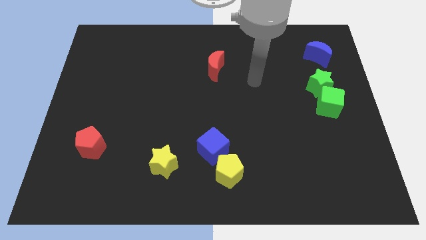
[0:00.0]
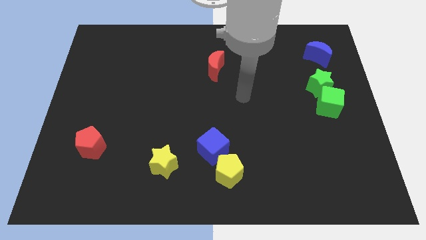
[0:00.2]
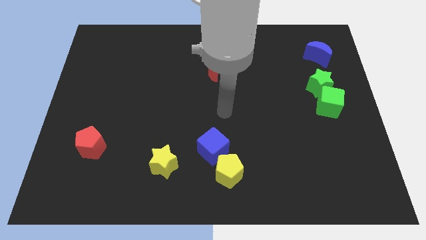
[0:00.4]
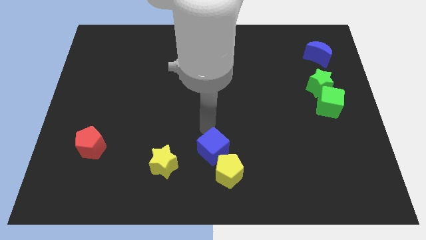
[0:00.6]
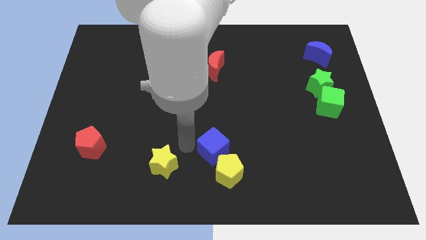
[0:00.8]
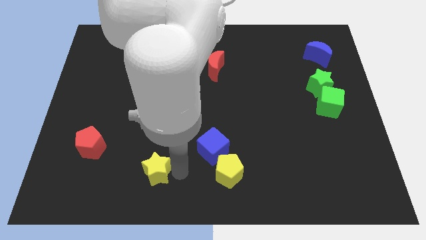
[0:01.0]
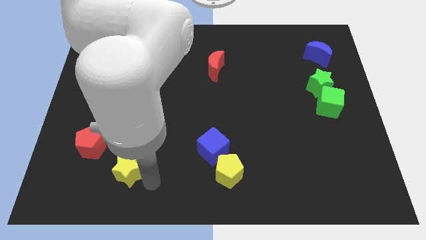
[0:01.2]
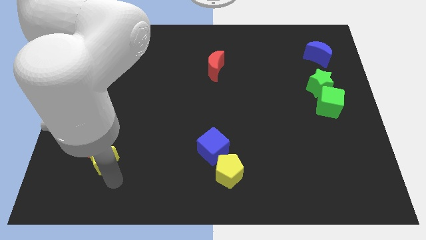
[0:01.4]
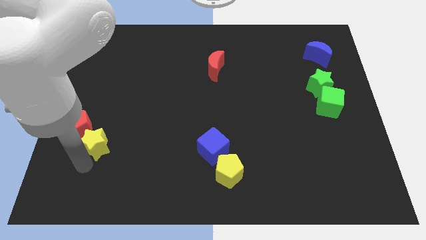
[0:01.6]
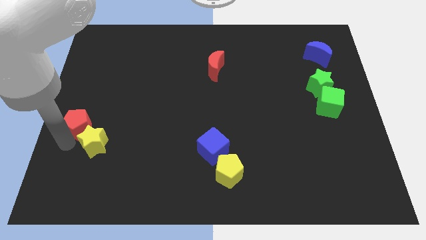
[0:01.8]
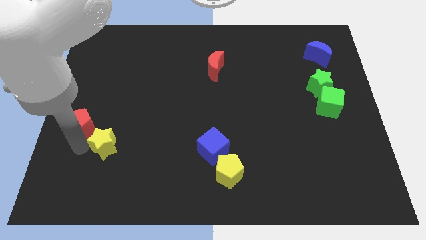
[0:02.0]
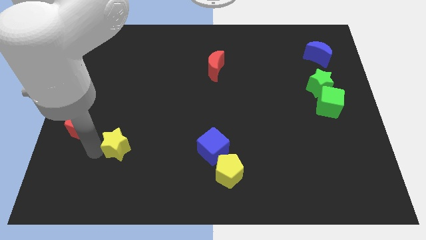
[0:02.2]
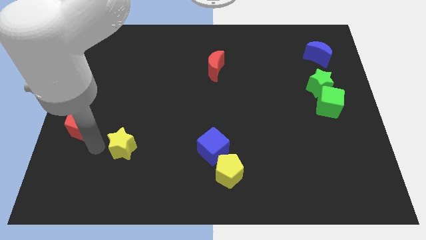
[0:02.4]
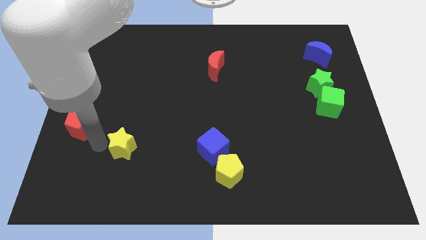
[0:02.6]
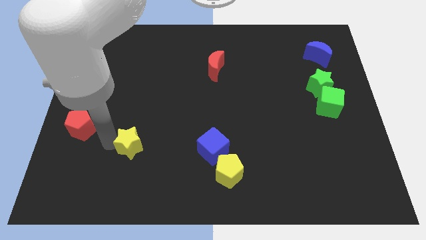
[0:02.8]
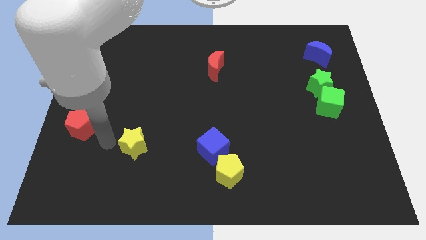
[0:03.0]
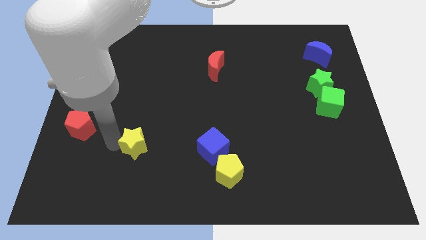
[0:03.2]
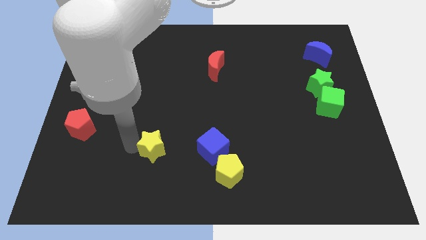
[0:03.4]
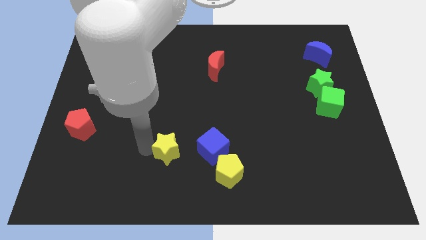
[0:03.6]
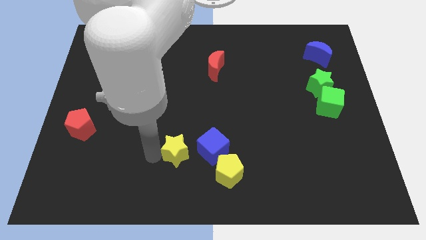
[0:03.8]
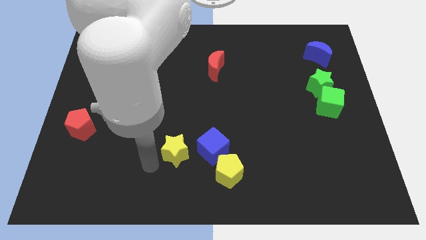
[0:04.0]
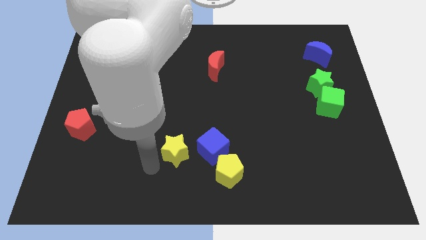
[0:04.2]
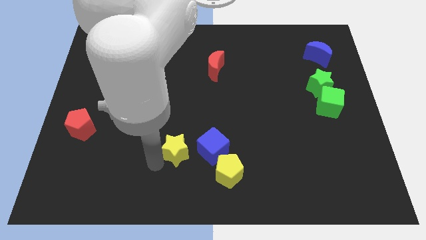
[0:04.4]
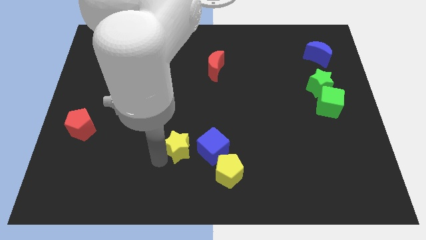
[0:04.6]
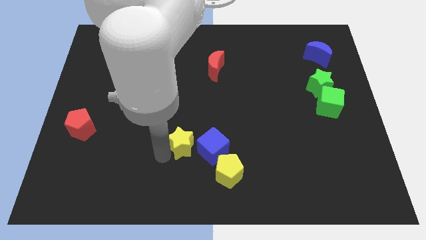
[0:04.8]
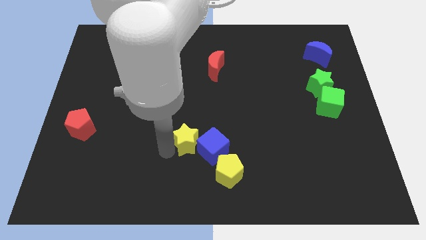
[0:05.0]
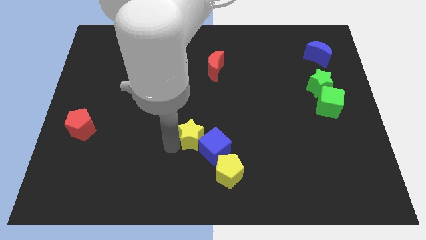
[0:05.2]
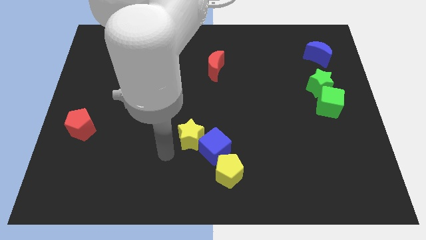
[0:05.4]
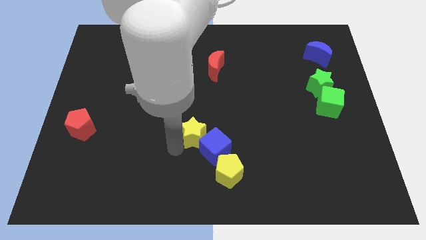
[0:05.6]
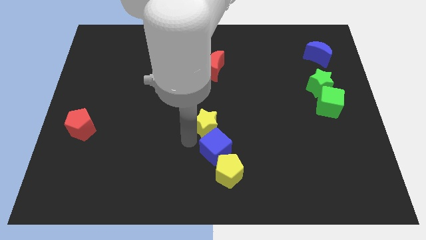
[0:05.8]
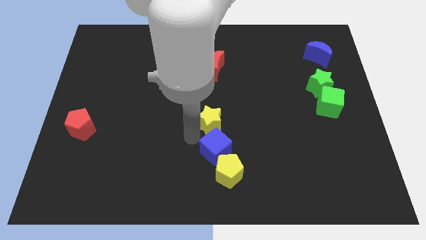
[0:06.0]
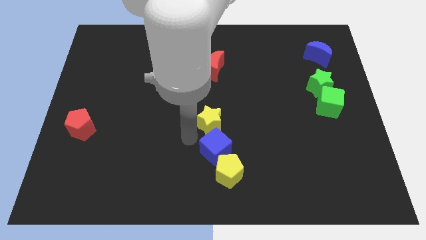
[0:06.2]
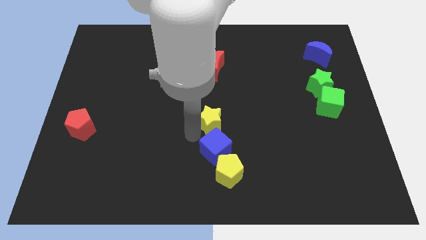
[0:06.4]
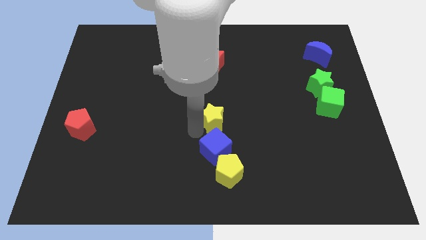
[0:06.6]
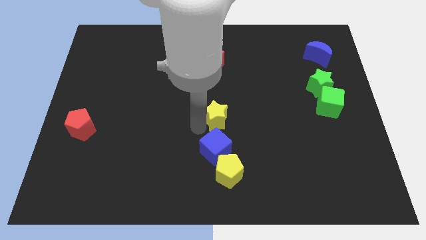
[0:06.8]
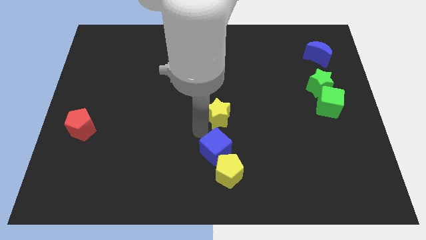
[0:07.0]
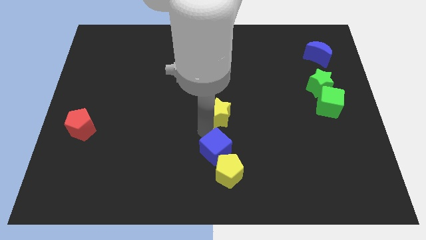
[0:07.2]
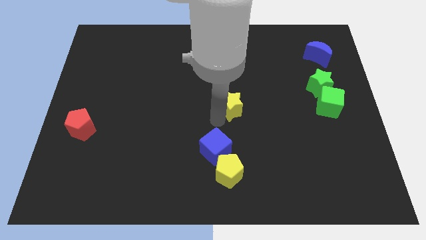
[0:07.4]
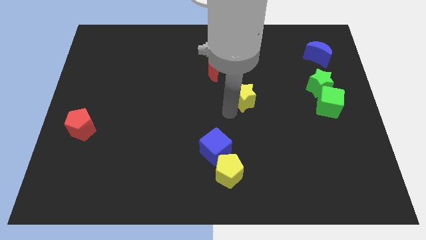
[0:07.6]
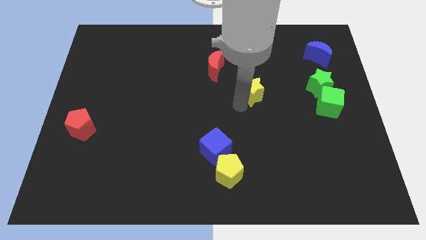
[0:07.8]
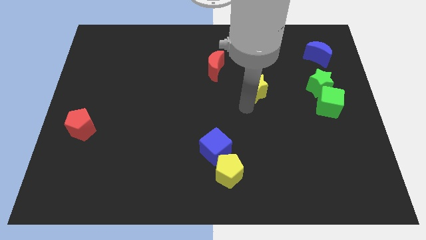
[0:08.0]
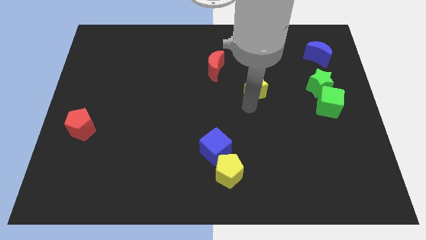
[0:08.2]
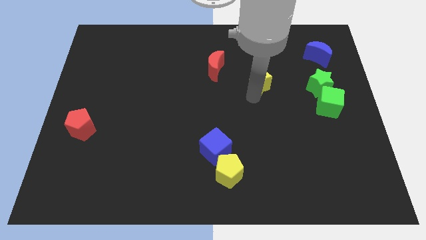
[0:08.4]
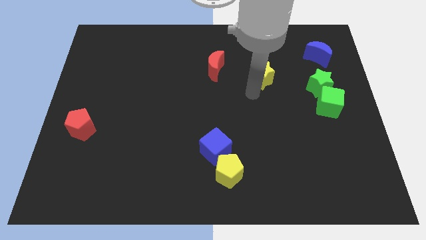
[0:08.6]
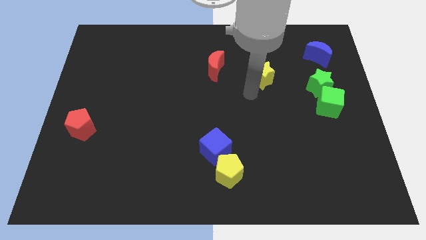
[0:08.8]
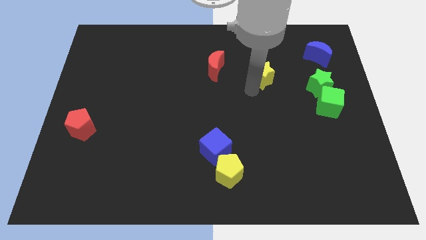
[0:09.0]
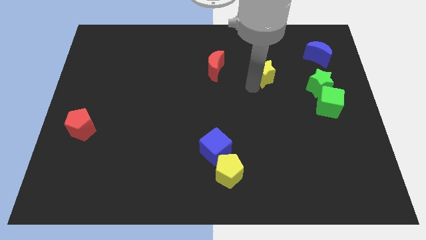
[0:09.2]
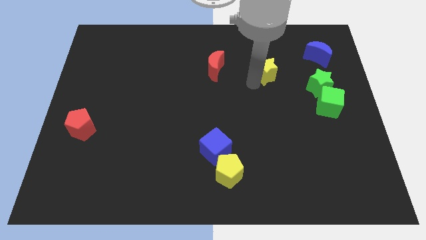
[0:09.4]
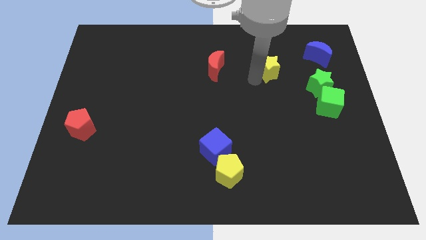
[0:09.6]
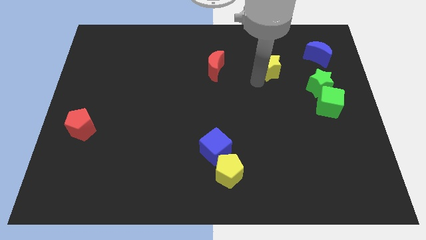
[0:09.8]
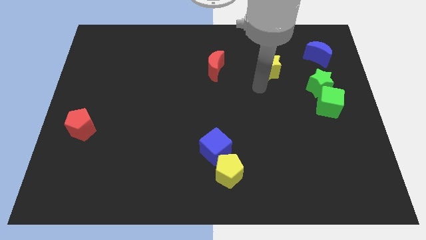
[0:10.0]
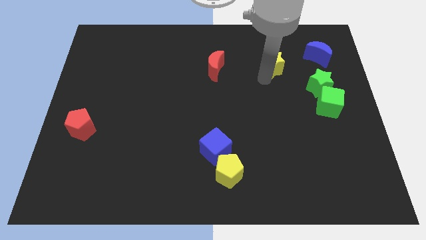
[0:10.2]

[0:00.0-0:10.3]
put the yellow star to the left of the blue moon

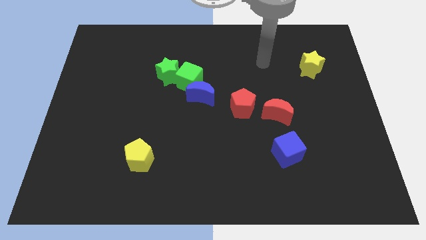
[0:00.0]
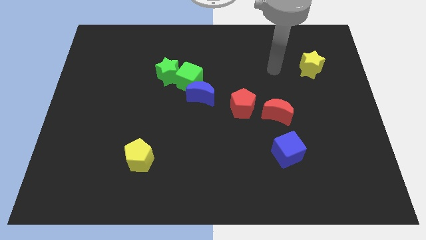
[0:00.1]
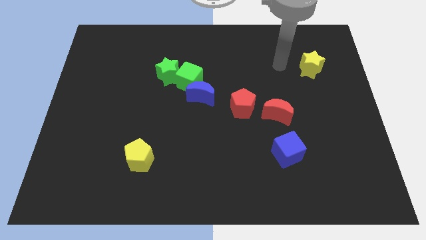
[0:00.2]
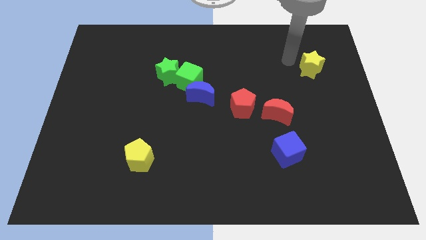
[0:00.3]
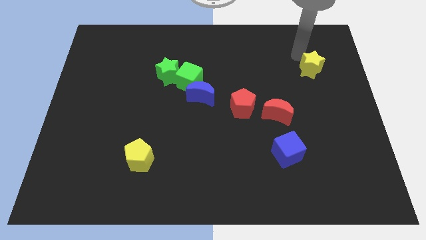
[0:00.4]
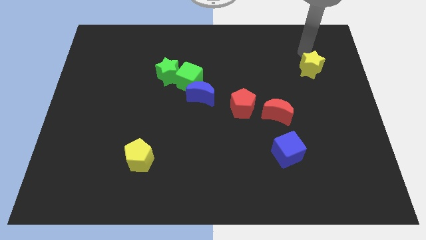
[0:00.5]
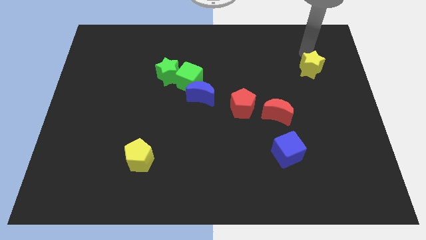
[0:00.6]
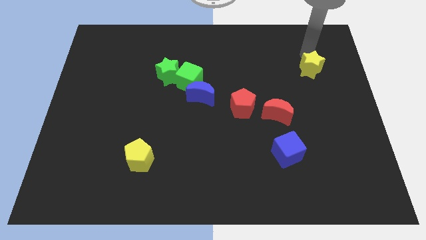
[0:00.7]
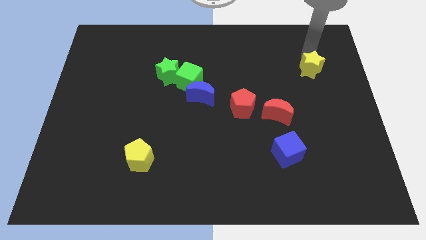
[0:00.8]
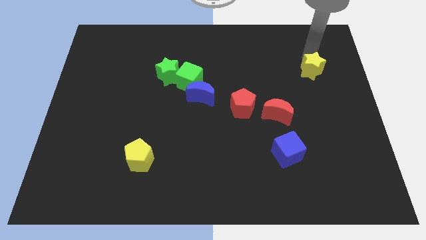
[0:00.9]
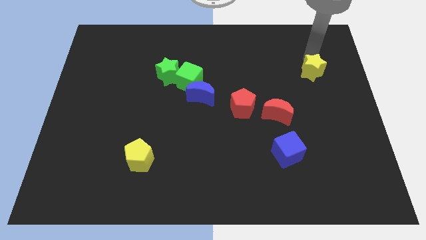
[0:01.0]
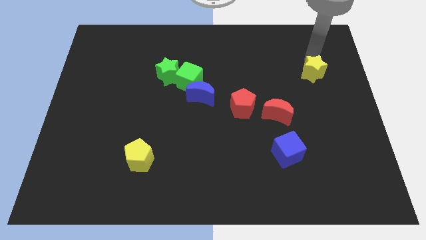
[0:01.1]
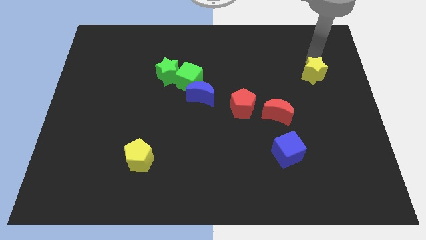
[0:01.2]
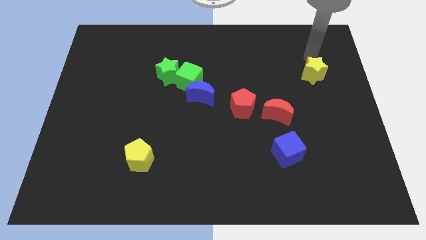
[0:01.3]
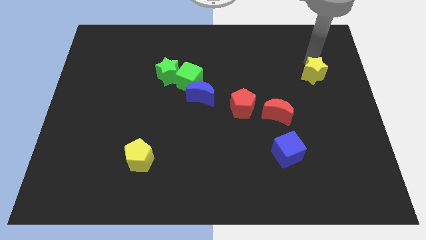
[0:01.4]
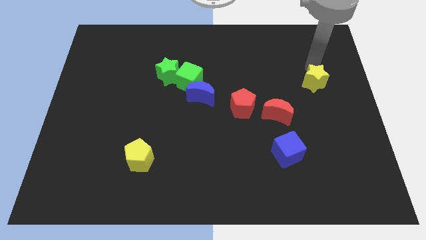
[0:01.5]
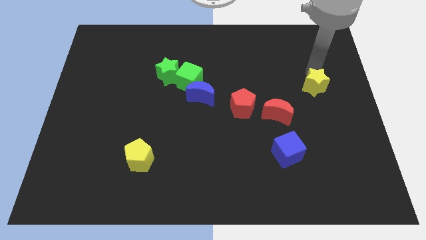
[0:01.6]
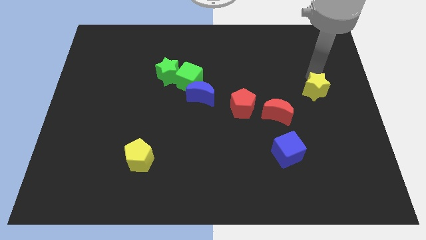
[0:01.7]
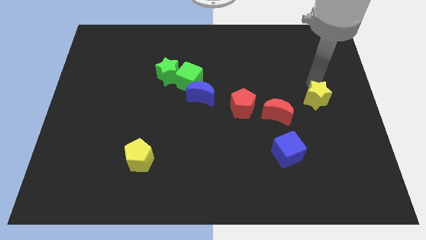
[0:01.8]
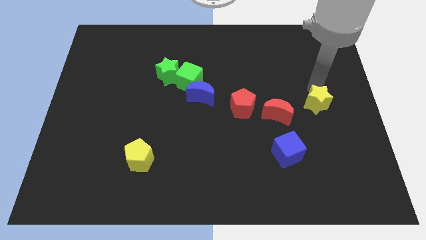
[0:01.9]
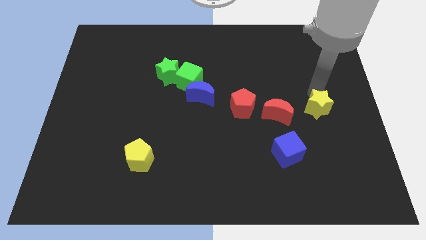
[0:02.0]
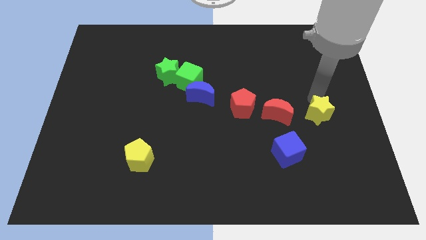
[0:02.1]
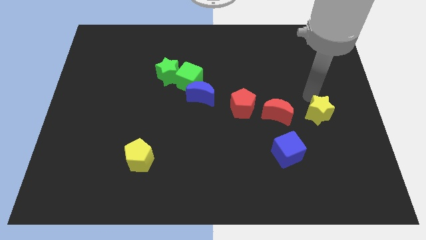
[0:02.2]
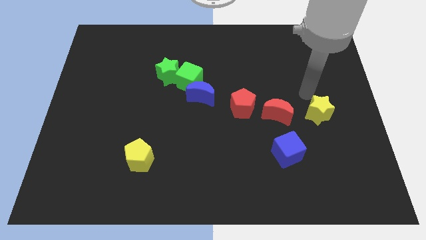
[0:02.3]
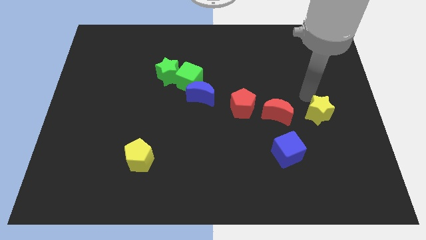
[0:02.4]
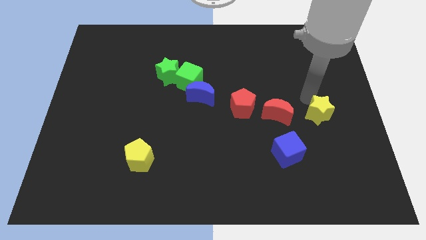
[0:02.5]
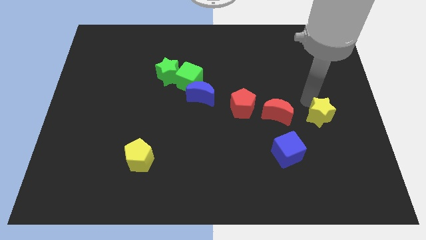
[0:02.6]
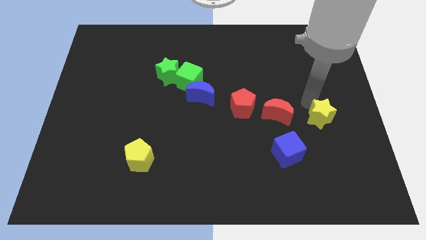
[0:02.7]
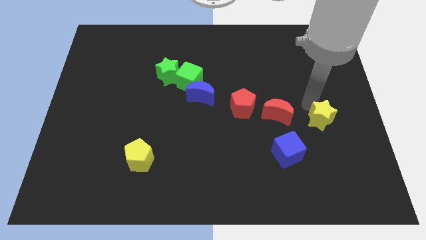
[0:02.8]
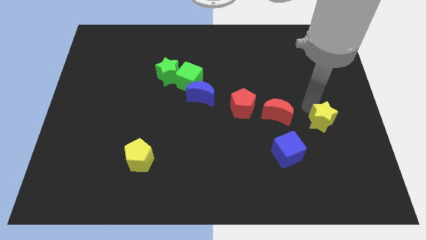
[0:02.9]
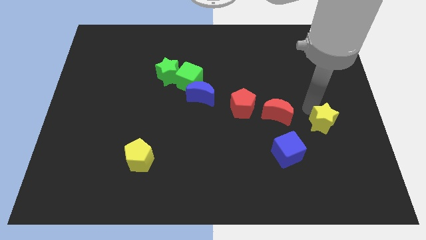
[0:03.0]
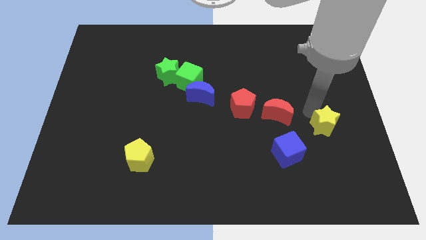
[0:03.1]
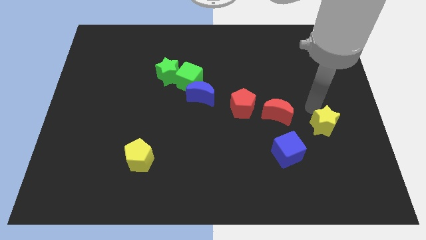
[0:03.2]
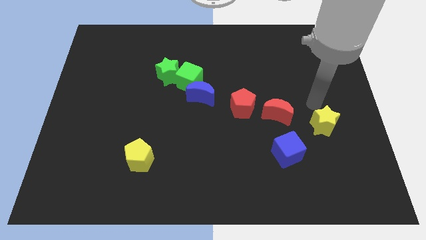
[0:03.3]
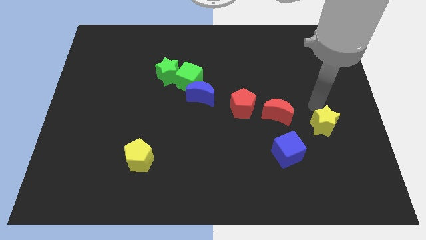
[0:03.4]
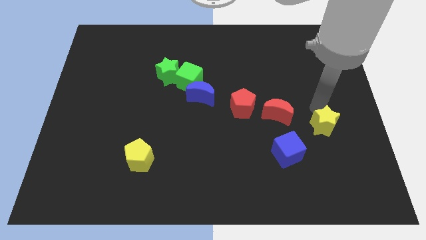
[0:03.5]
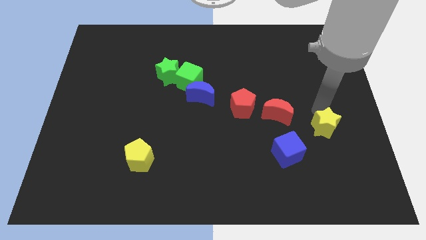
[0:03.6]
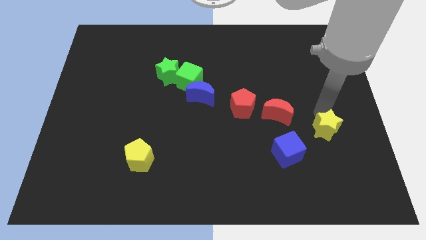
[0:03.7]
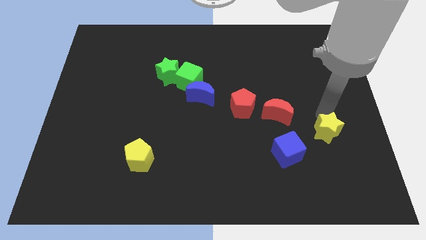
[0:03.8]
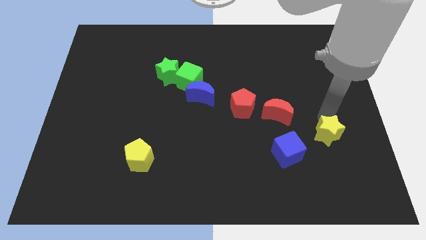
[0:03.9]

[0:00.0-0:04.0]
put the yellow star right of the blue cube
